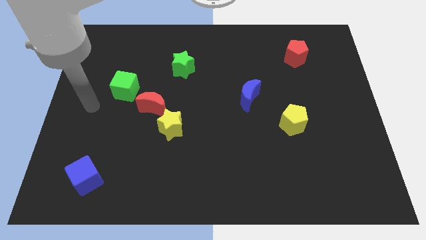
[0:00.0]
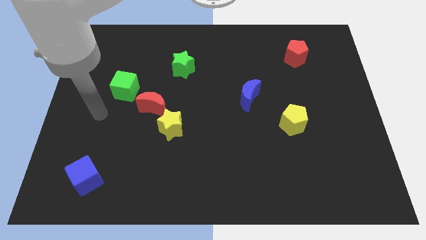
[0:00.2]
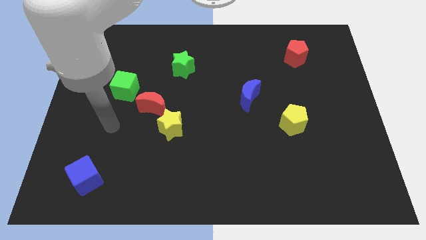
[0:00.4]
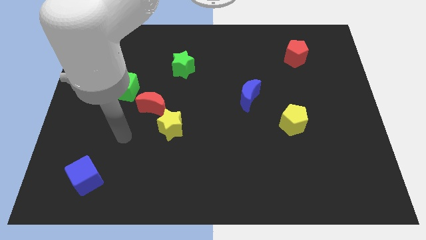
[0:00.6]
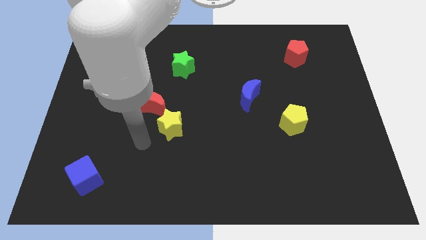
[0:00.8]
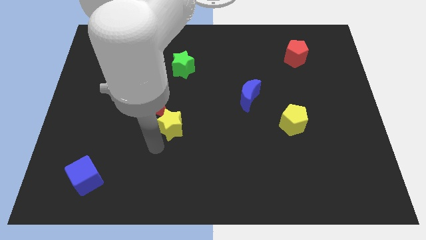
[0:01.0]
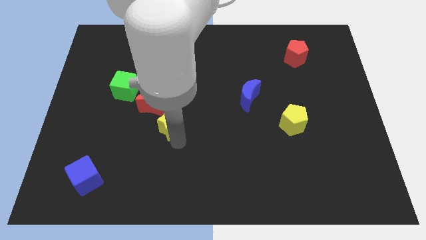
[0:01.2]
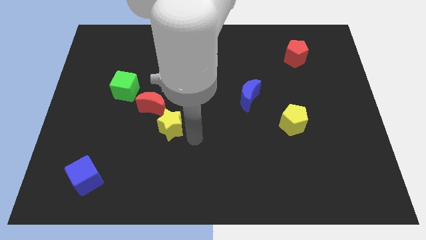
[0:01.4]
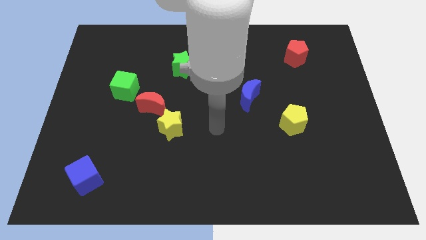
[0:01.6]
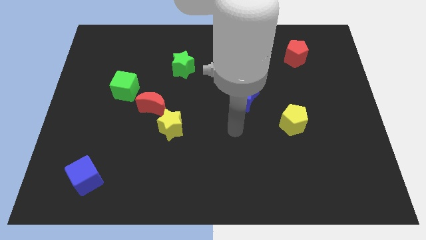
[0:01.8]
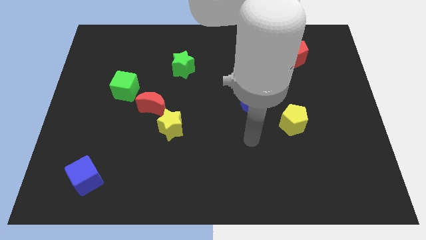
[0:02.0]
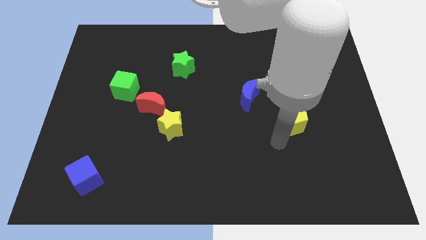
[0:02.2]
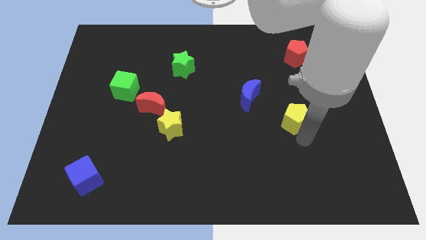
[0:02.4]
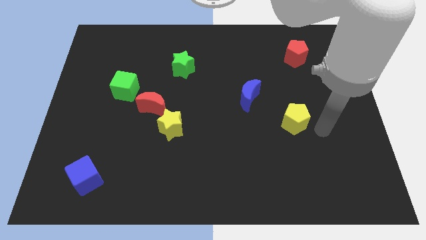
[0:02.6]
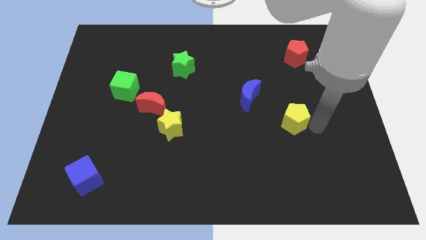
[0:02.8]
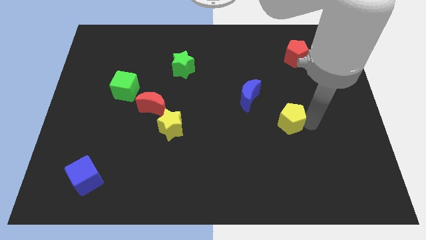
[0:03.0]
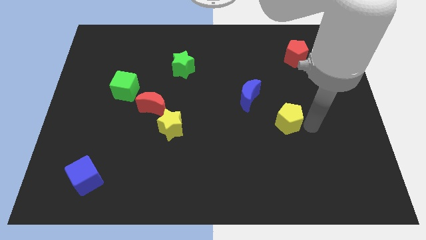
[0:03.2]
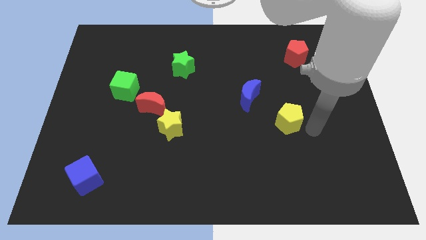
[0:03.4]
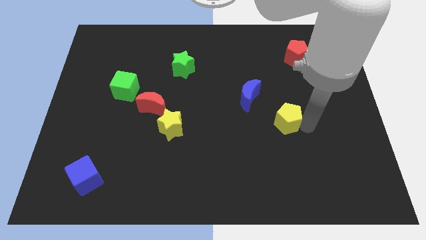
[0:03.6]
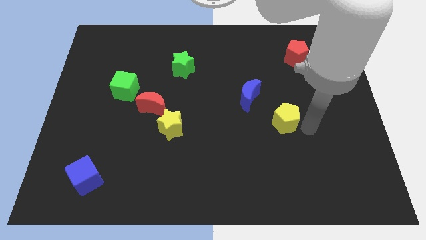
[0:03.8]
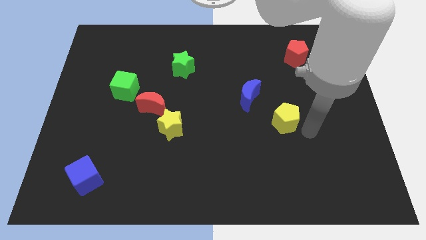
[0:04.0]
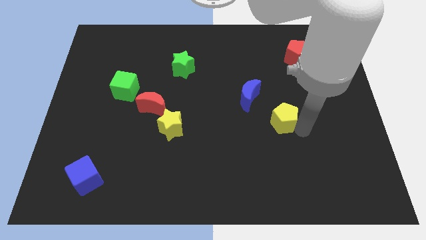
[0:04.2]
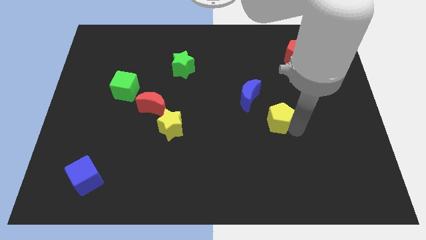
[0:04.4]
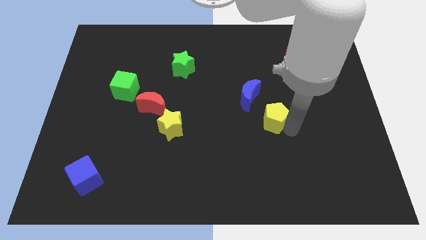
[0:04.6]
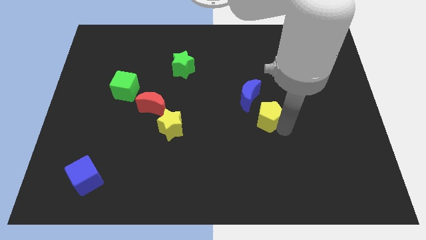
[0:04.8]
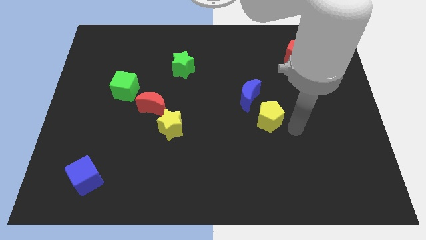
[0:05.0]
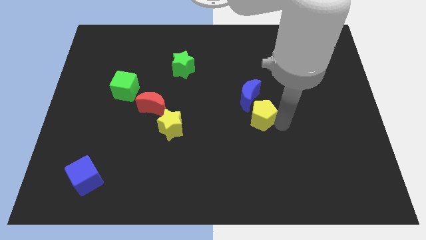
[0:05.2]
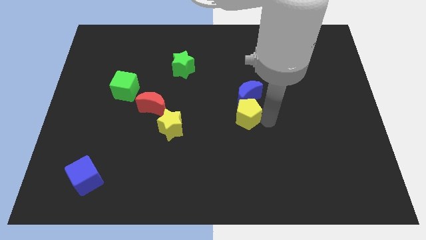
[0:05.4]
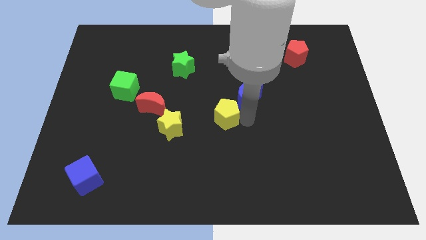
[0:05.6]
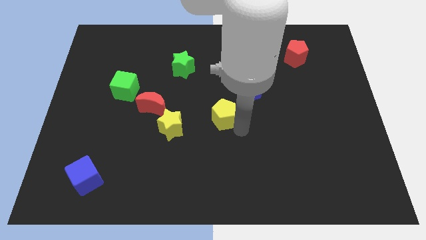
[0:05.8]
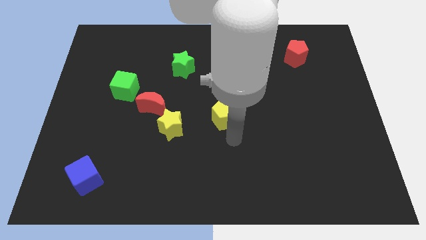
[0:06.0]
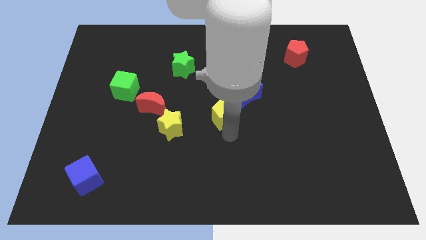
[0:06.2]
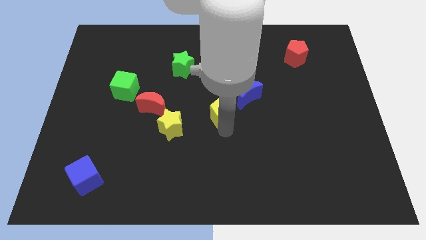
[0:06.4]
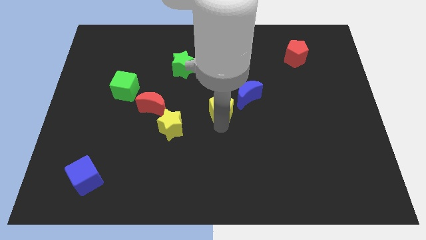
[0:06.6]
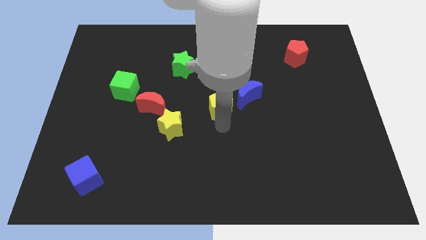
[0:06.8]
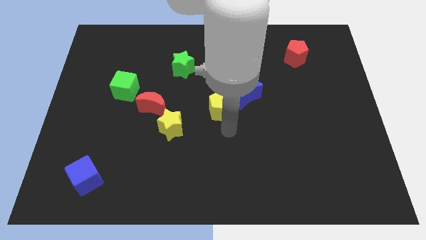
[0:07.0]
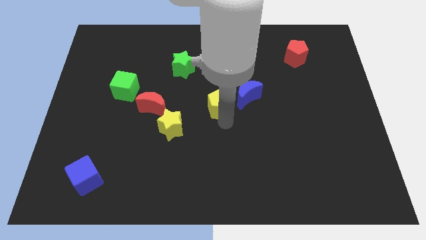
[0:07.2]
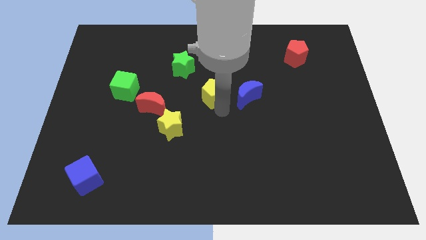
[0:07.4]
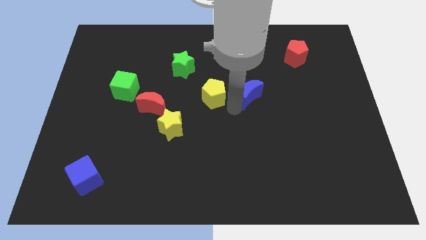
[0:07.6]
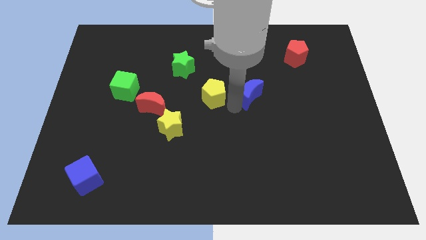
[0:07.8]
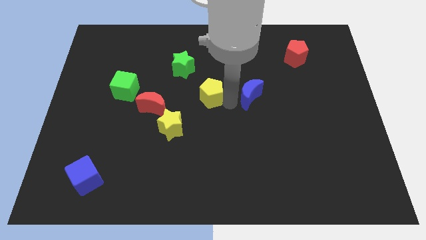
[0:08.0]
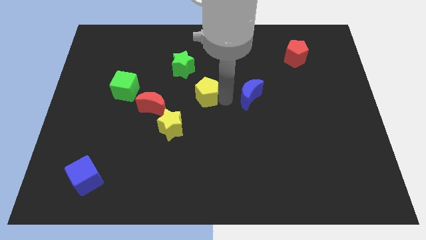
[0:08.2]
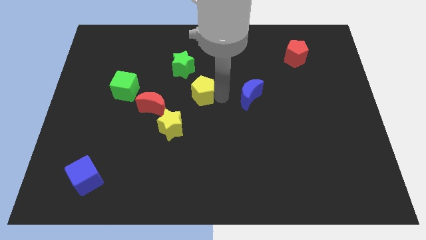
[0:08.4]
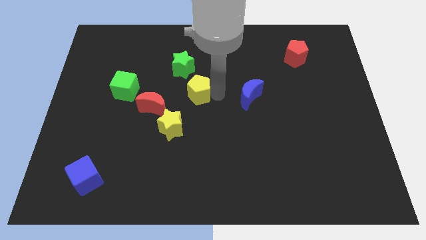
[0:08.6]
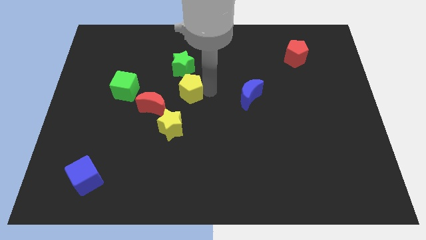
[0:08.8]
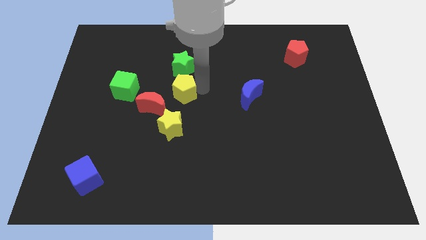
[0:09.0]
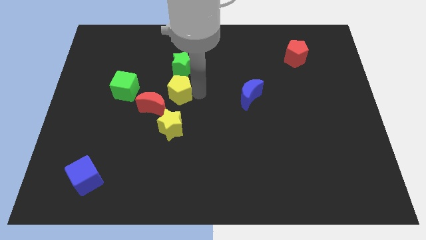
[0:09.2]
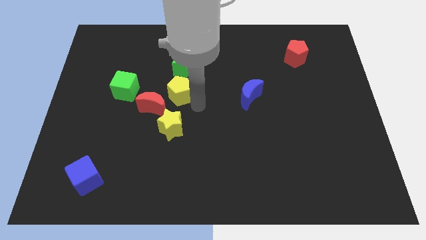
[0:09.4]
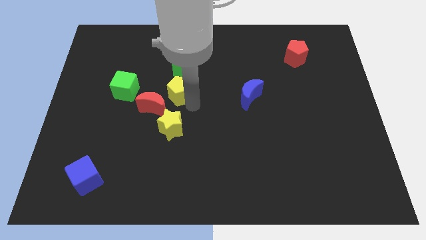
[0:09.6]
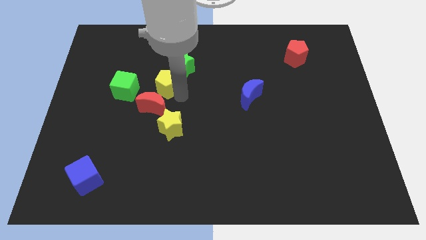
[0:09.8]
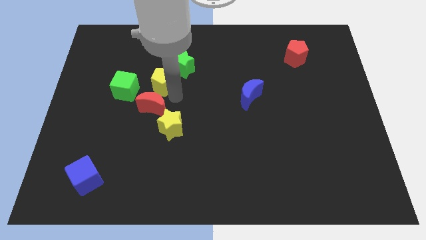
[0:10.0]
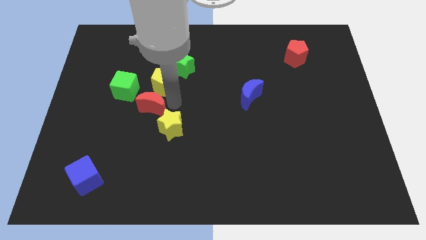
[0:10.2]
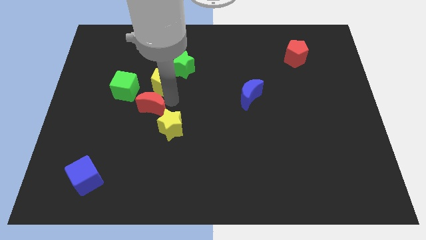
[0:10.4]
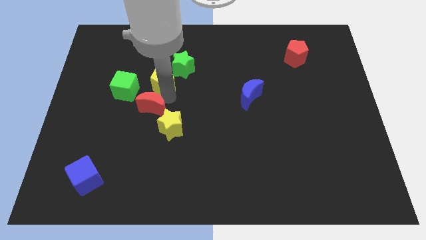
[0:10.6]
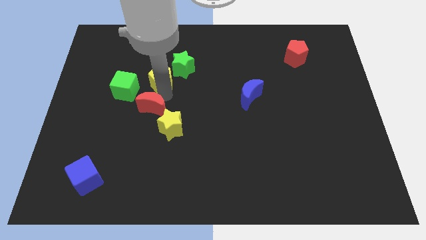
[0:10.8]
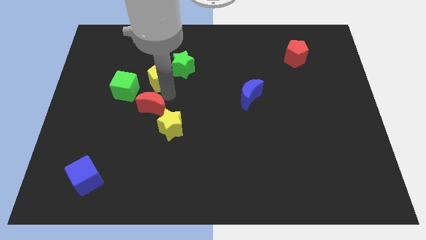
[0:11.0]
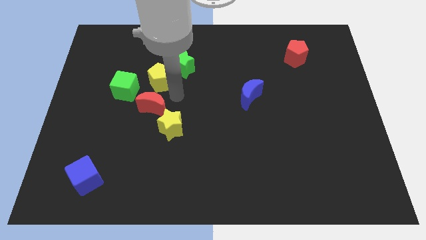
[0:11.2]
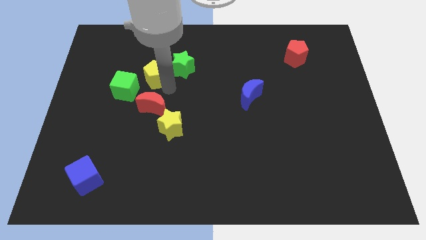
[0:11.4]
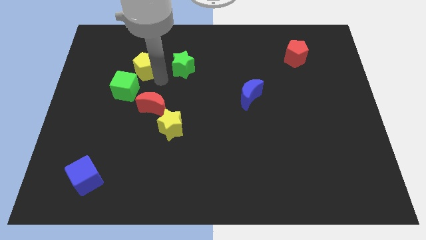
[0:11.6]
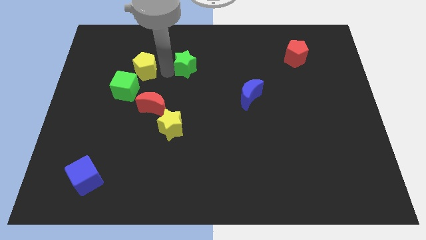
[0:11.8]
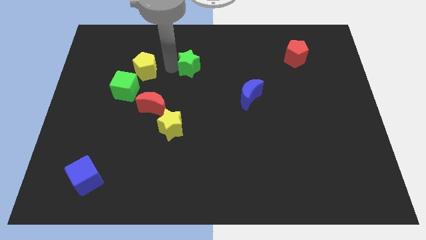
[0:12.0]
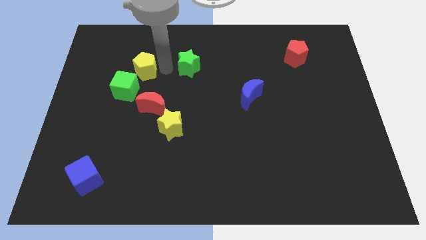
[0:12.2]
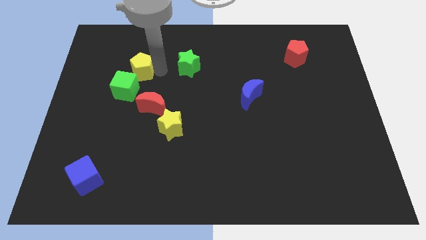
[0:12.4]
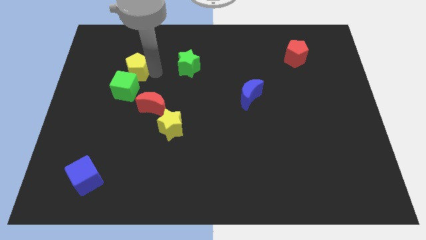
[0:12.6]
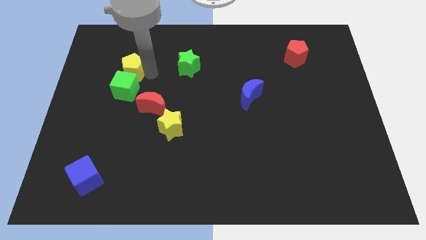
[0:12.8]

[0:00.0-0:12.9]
push the yellow pentagon diagonally up and to the left of the green cube

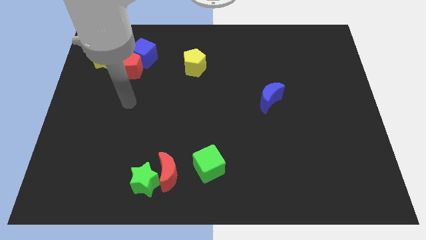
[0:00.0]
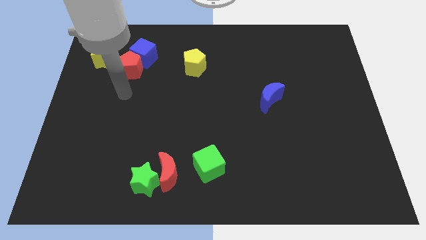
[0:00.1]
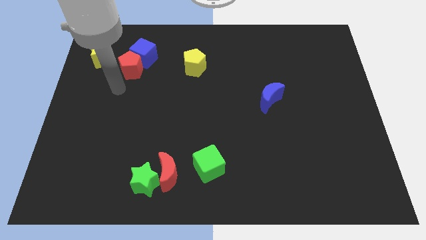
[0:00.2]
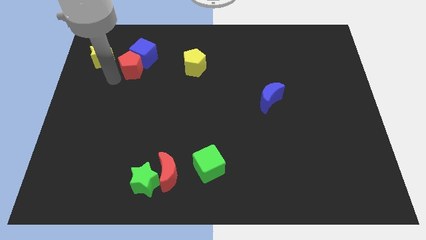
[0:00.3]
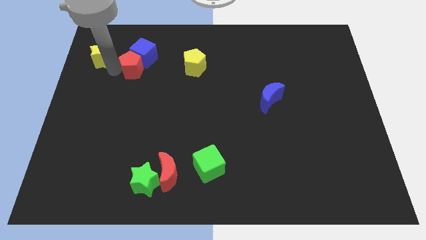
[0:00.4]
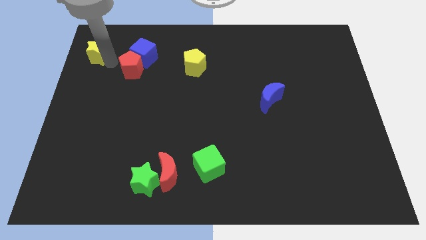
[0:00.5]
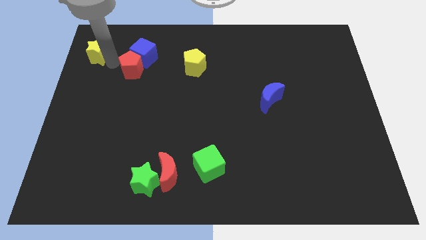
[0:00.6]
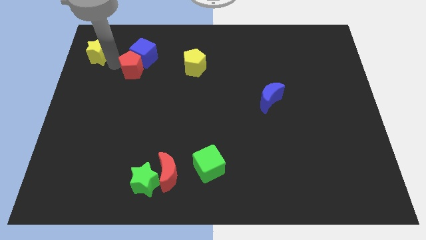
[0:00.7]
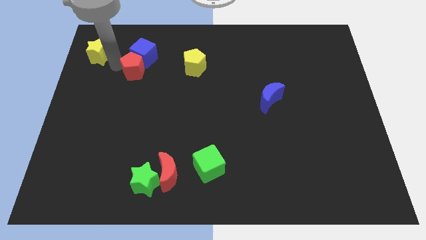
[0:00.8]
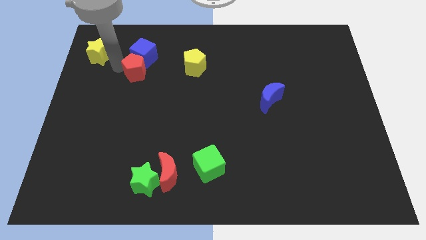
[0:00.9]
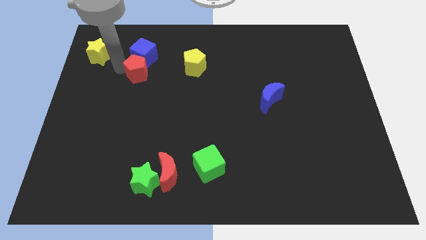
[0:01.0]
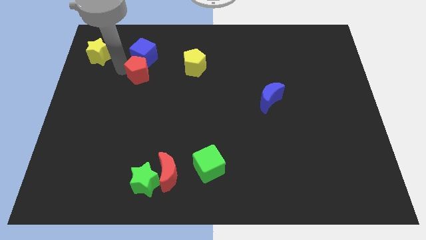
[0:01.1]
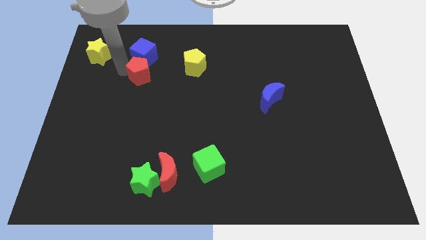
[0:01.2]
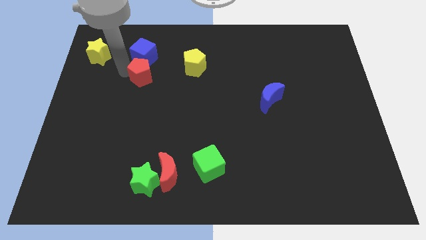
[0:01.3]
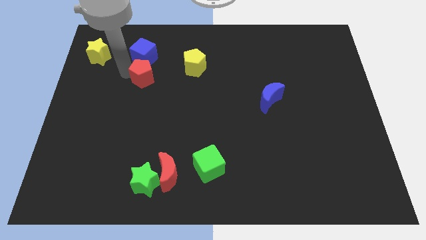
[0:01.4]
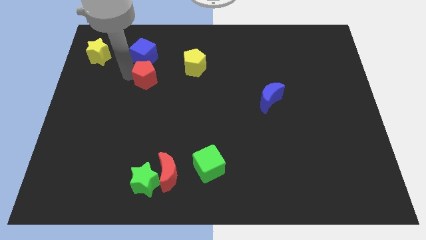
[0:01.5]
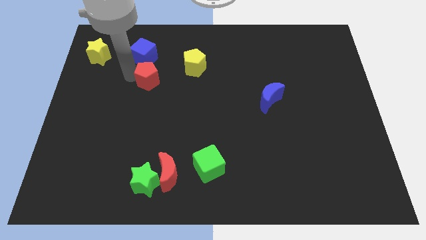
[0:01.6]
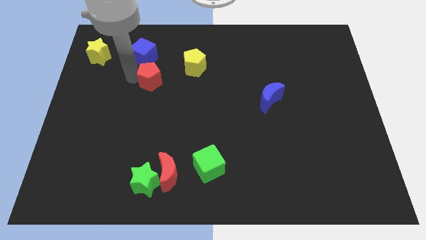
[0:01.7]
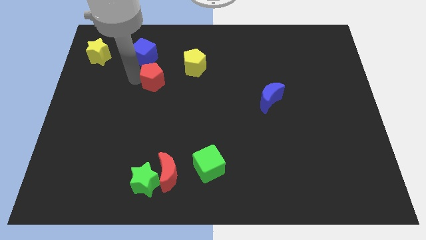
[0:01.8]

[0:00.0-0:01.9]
move the red pentagon to the bottom left side of the yellow pentagon

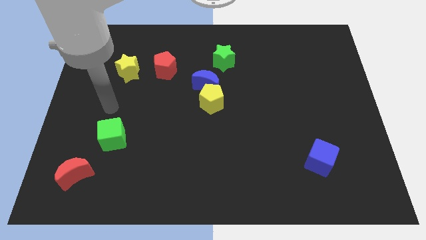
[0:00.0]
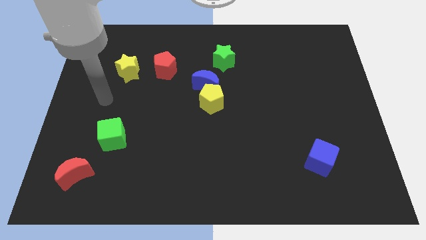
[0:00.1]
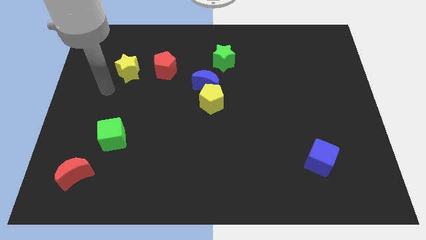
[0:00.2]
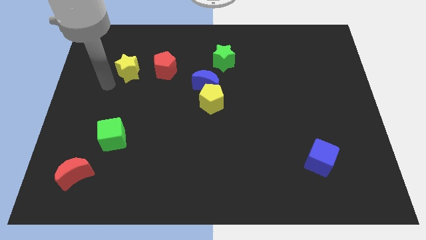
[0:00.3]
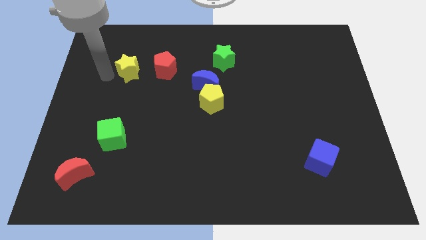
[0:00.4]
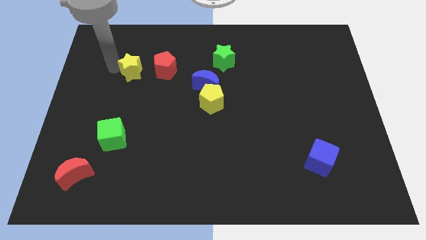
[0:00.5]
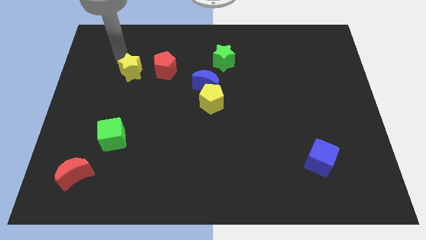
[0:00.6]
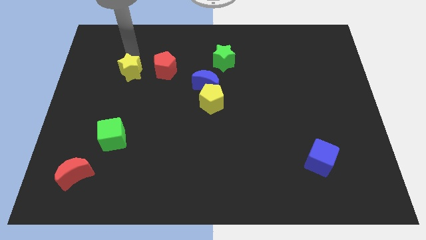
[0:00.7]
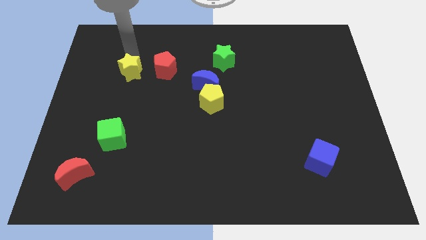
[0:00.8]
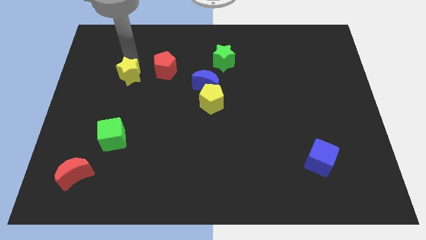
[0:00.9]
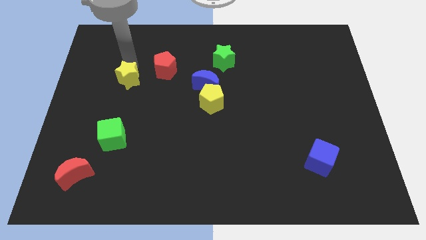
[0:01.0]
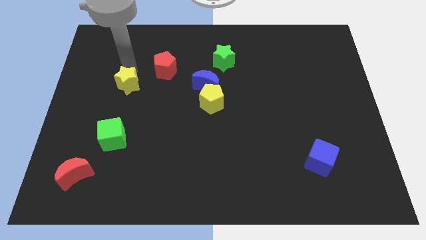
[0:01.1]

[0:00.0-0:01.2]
put the yellow star above the green cube
